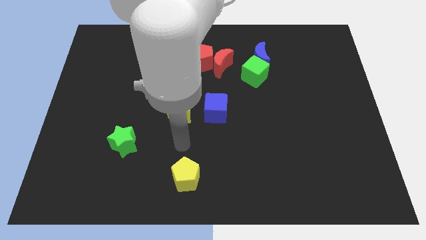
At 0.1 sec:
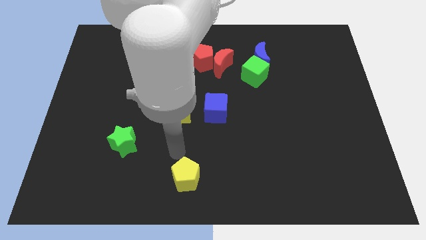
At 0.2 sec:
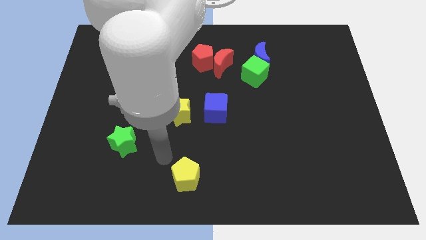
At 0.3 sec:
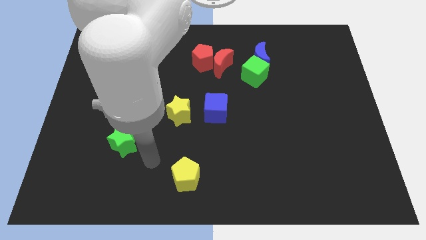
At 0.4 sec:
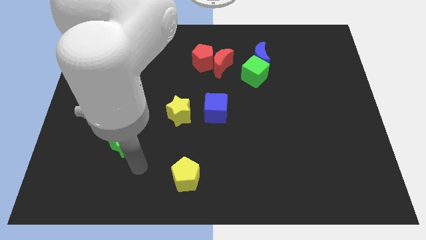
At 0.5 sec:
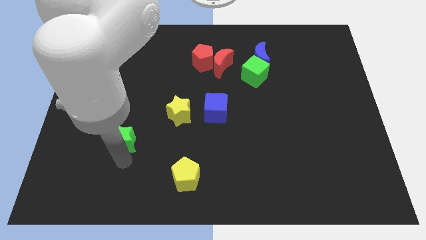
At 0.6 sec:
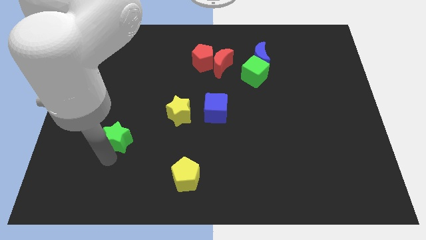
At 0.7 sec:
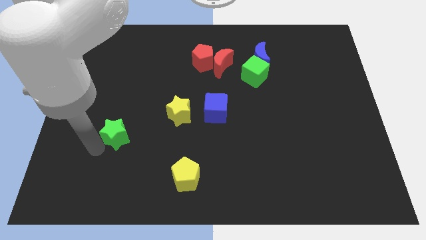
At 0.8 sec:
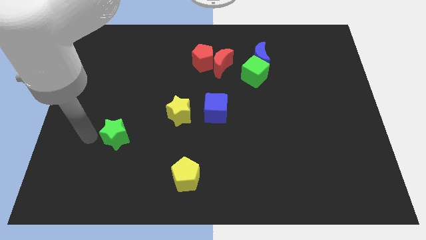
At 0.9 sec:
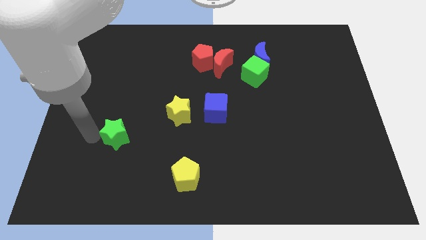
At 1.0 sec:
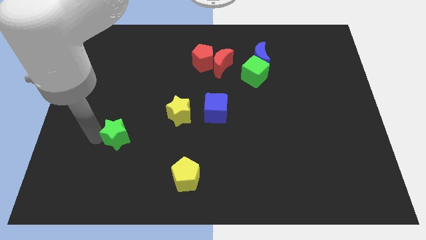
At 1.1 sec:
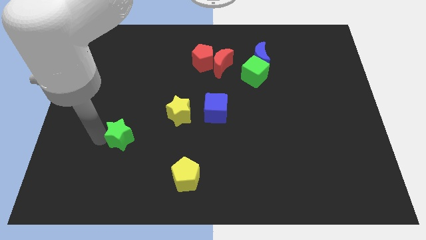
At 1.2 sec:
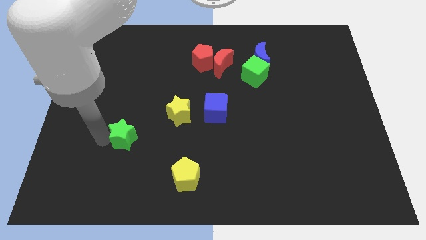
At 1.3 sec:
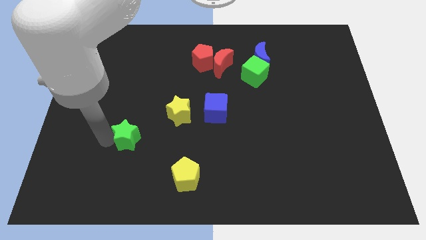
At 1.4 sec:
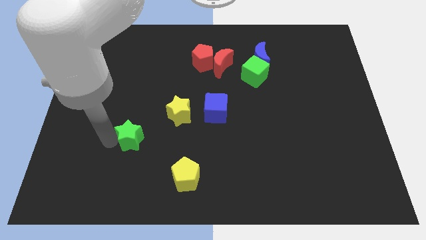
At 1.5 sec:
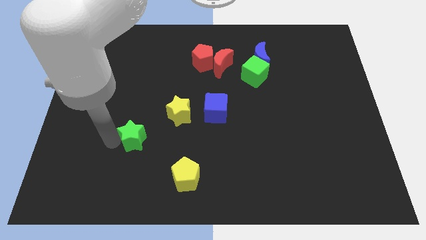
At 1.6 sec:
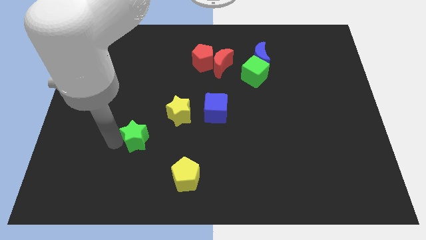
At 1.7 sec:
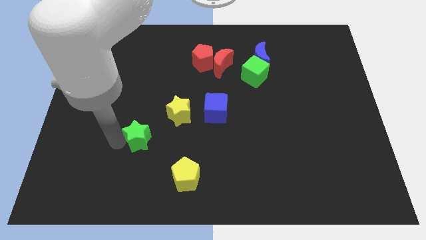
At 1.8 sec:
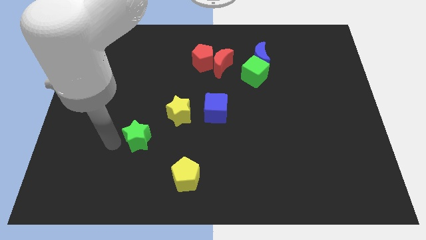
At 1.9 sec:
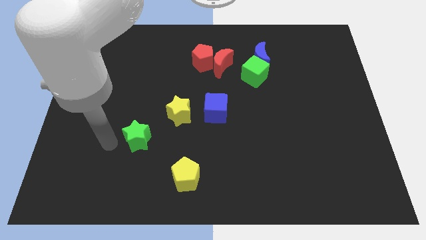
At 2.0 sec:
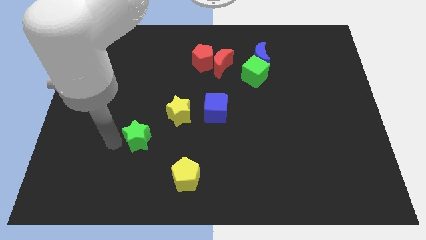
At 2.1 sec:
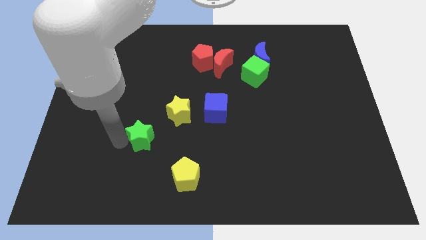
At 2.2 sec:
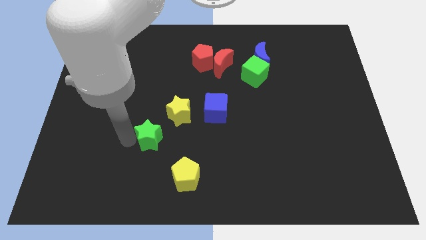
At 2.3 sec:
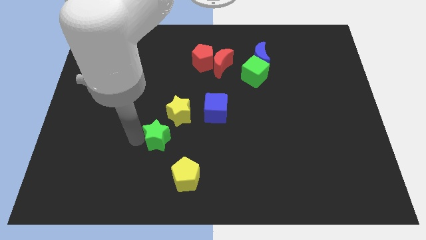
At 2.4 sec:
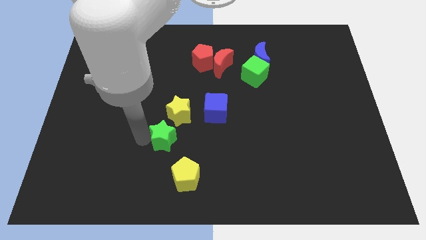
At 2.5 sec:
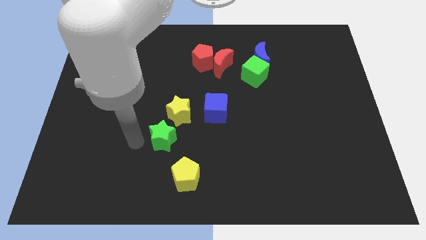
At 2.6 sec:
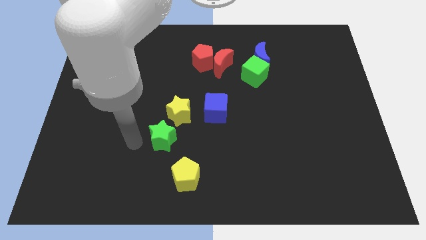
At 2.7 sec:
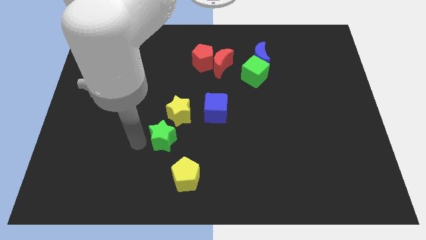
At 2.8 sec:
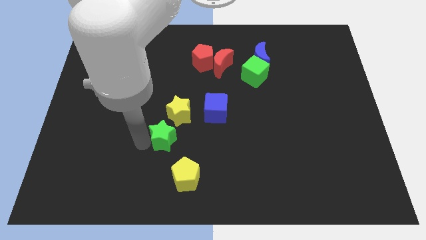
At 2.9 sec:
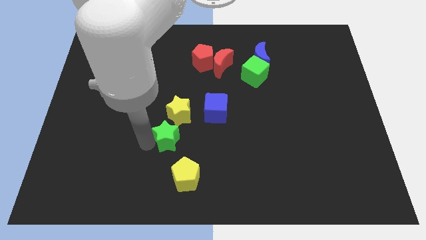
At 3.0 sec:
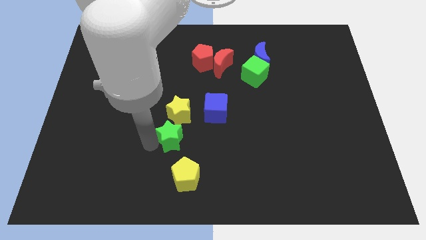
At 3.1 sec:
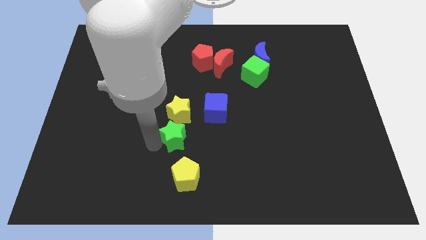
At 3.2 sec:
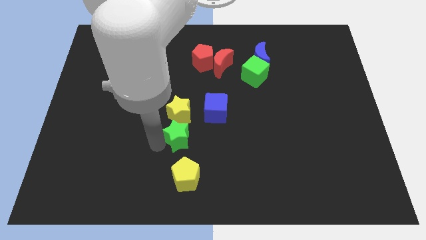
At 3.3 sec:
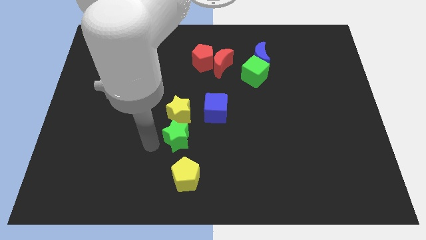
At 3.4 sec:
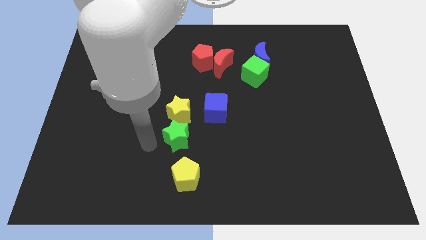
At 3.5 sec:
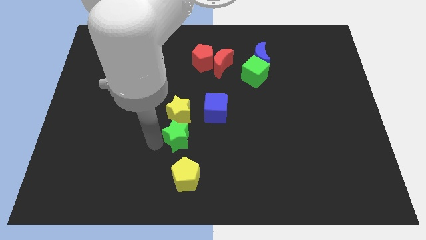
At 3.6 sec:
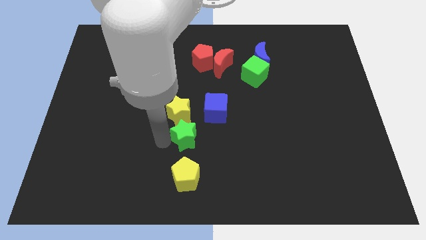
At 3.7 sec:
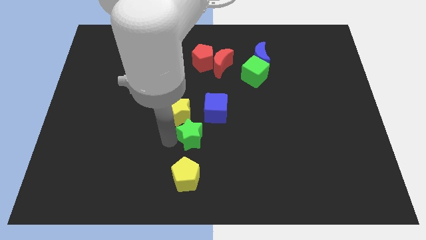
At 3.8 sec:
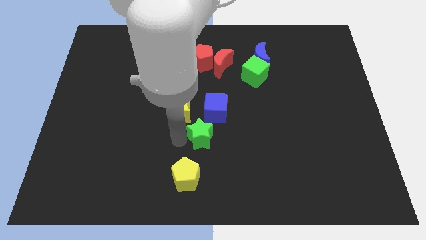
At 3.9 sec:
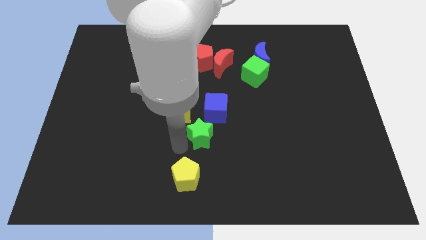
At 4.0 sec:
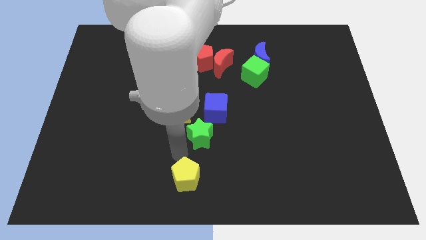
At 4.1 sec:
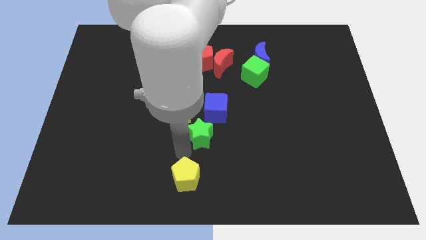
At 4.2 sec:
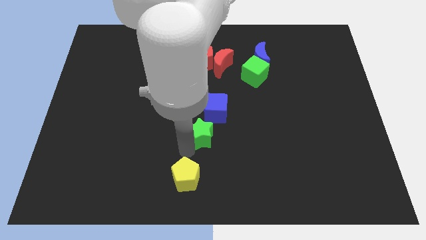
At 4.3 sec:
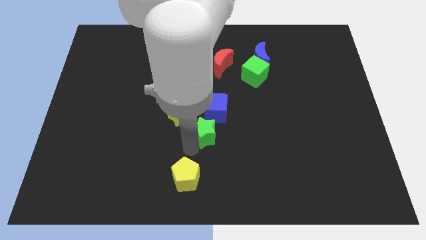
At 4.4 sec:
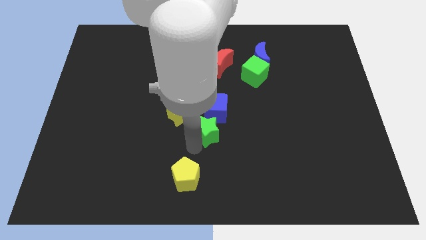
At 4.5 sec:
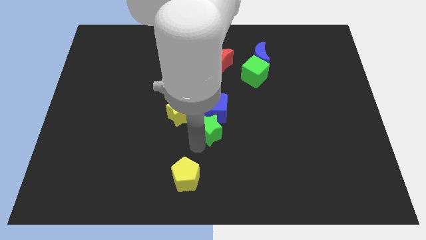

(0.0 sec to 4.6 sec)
put the green star right of the yellow star

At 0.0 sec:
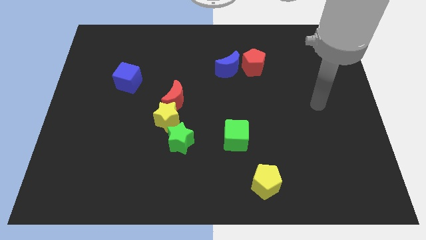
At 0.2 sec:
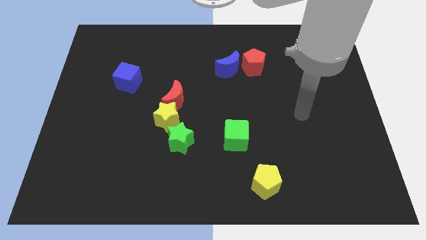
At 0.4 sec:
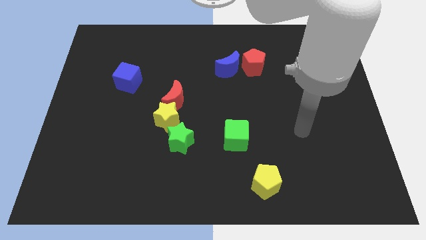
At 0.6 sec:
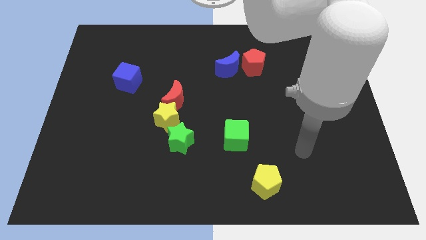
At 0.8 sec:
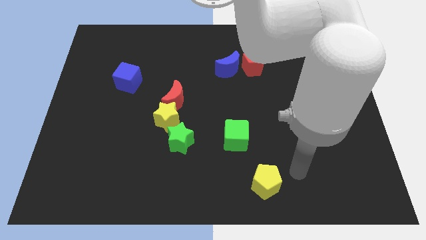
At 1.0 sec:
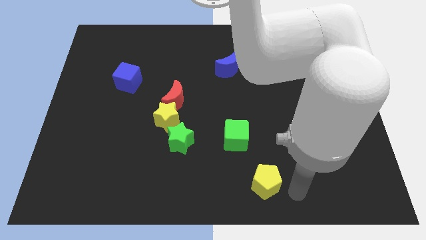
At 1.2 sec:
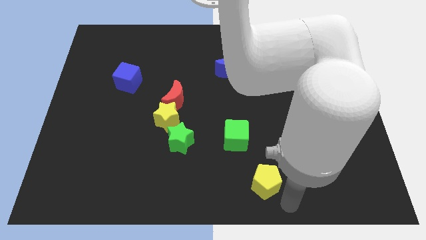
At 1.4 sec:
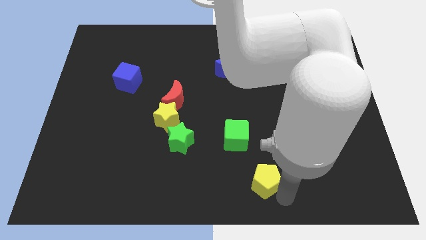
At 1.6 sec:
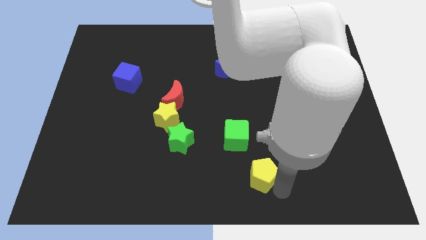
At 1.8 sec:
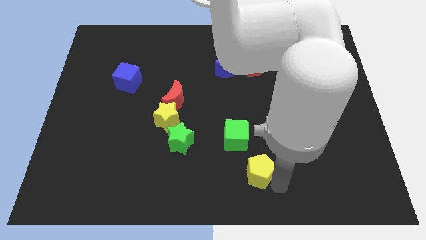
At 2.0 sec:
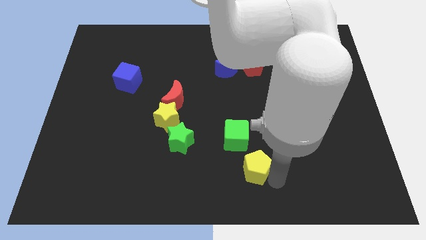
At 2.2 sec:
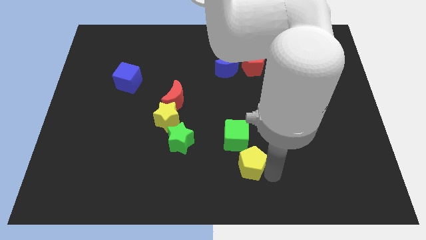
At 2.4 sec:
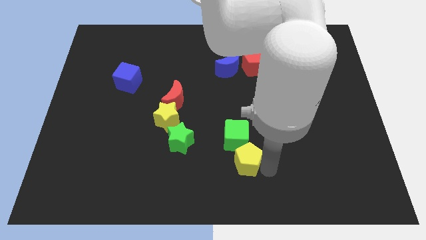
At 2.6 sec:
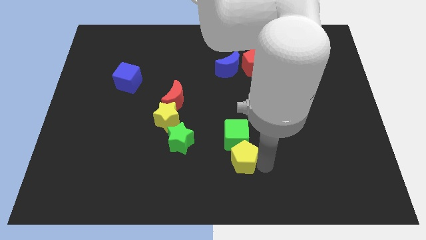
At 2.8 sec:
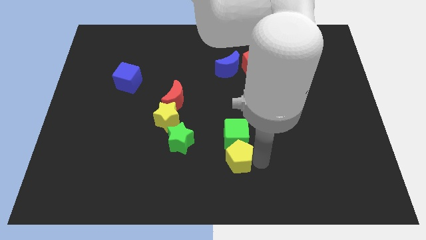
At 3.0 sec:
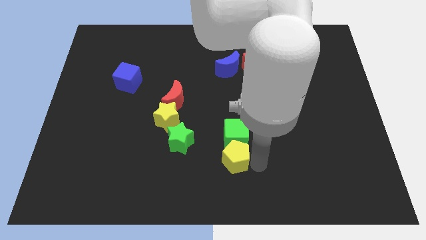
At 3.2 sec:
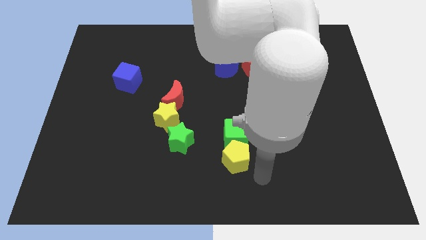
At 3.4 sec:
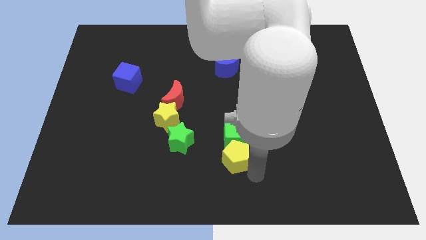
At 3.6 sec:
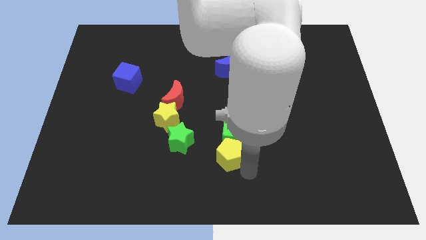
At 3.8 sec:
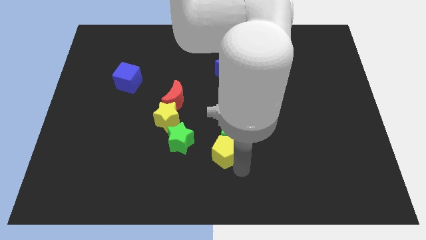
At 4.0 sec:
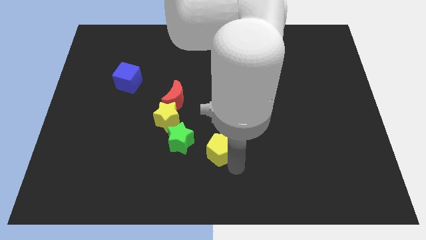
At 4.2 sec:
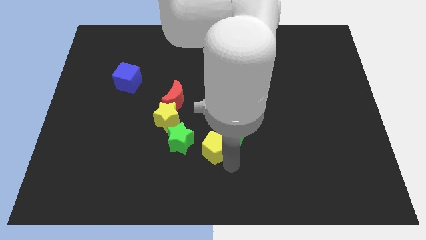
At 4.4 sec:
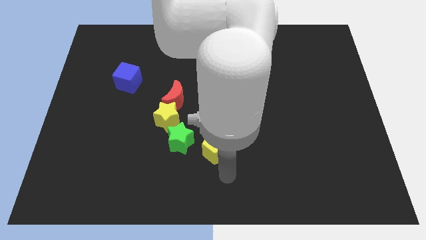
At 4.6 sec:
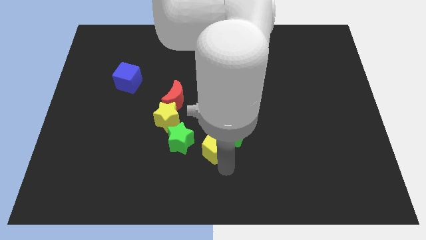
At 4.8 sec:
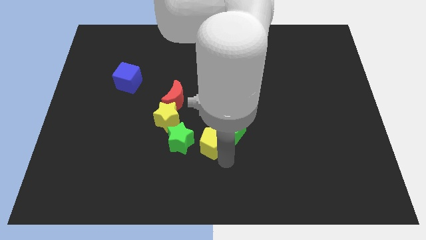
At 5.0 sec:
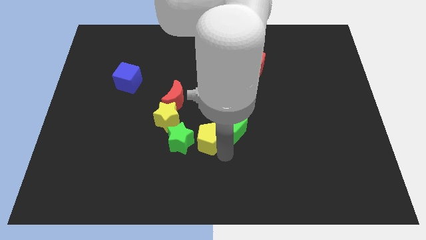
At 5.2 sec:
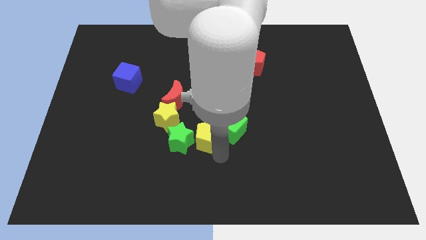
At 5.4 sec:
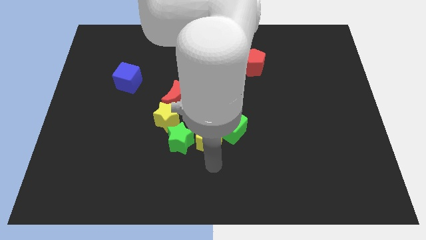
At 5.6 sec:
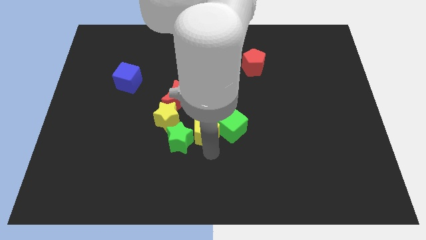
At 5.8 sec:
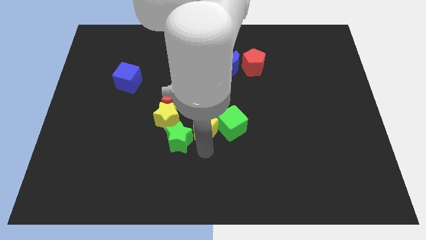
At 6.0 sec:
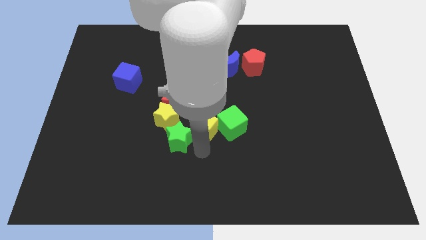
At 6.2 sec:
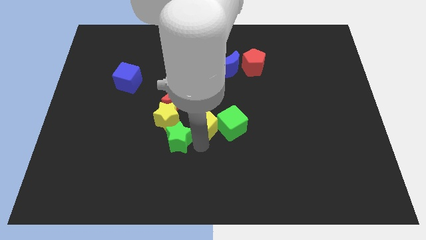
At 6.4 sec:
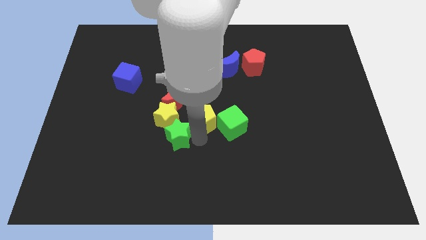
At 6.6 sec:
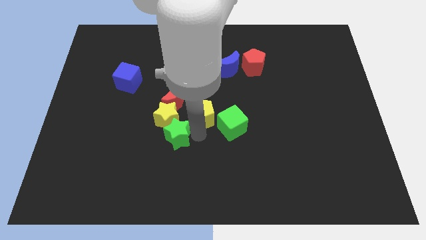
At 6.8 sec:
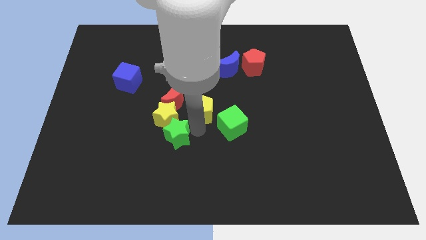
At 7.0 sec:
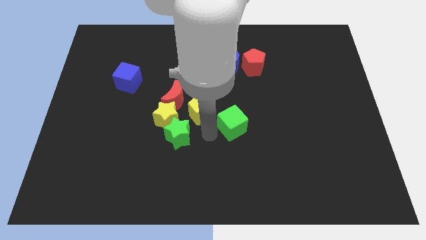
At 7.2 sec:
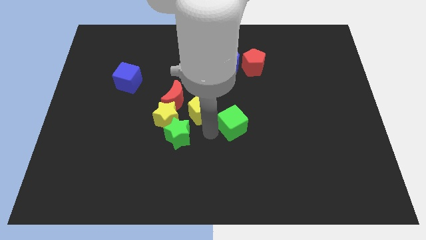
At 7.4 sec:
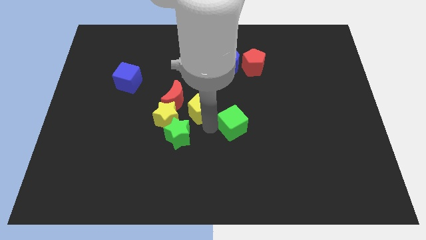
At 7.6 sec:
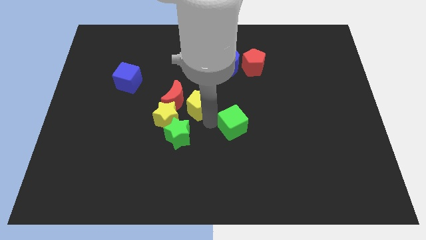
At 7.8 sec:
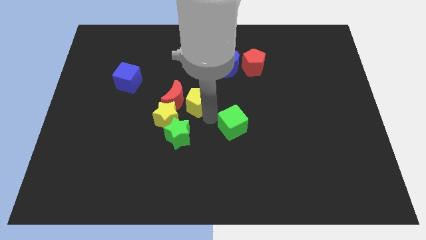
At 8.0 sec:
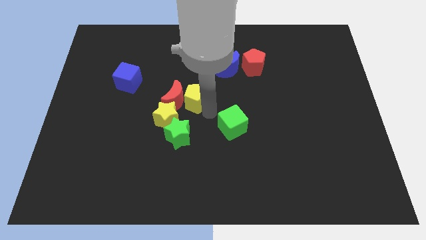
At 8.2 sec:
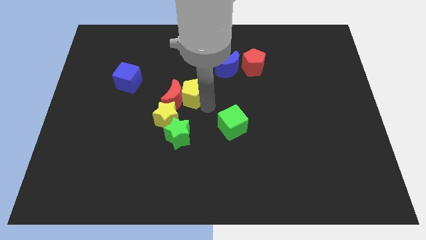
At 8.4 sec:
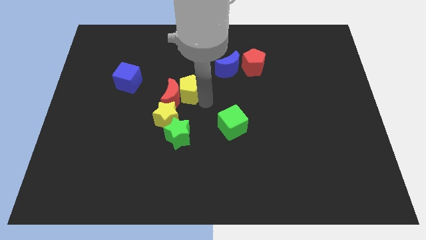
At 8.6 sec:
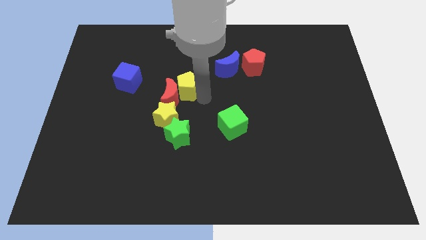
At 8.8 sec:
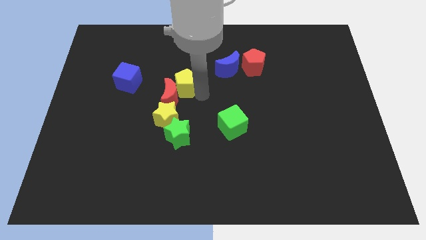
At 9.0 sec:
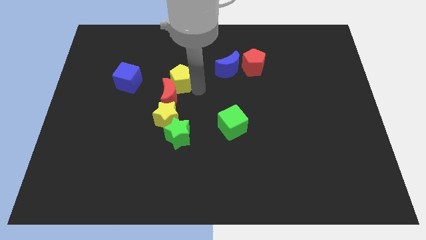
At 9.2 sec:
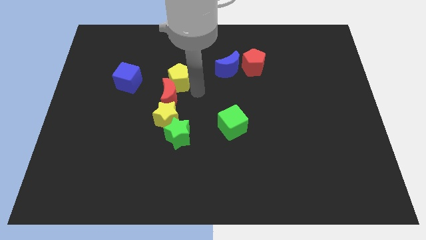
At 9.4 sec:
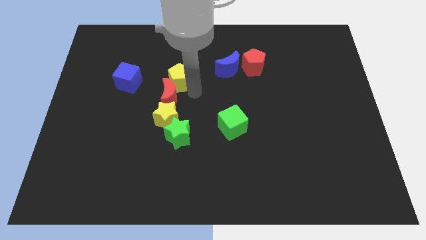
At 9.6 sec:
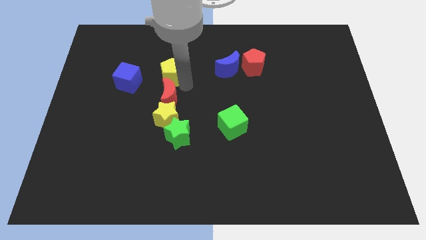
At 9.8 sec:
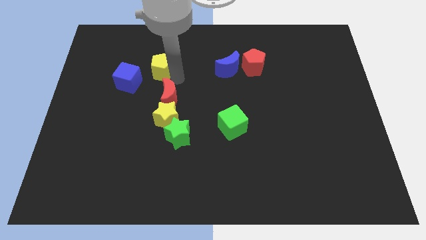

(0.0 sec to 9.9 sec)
put the yellow pentagon diagonally up and to the right of the blue cube
